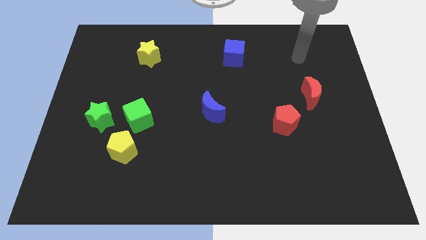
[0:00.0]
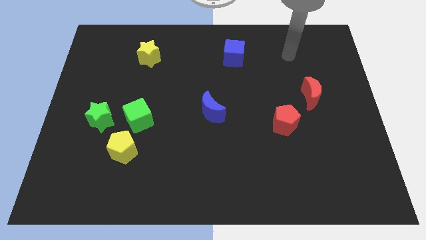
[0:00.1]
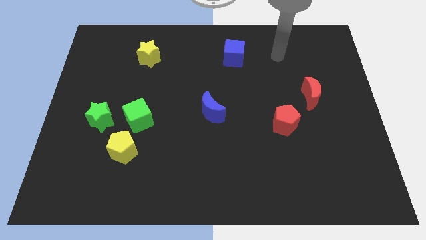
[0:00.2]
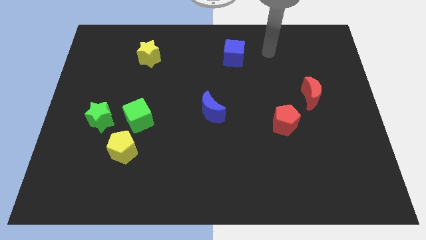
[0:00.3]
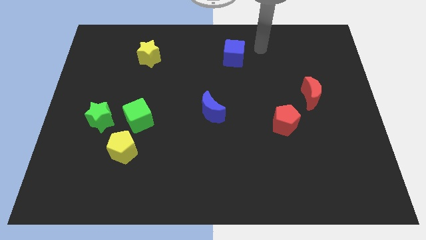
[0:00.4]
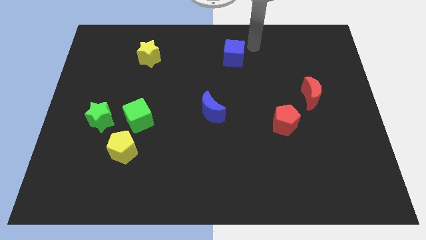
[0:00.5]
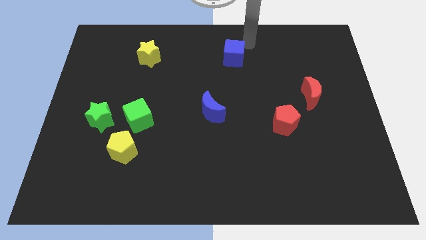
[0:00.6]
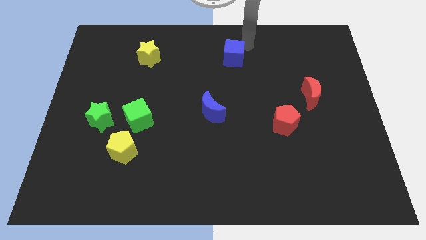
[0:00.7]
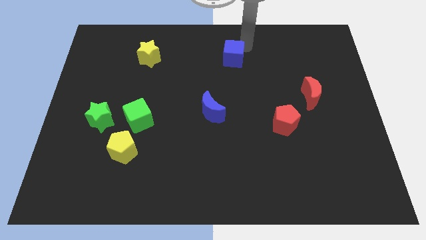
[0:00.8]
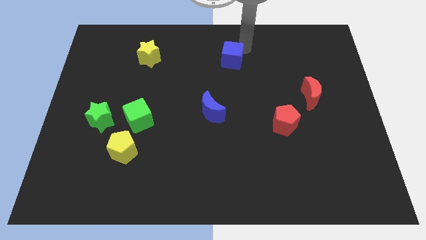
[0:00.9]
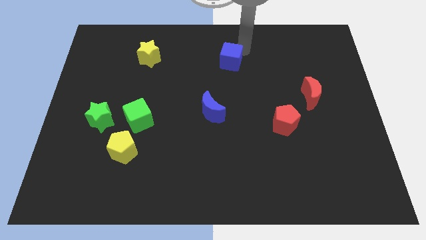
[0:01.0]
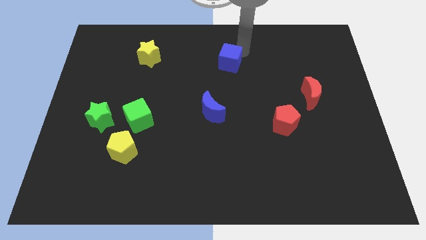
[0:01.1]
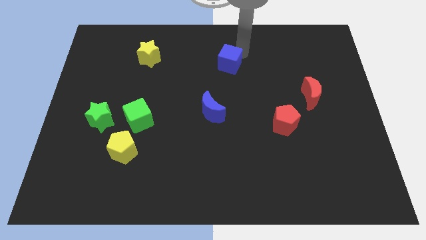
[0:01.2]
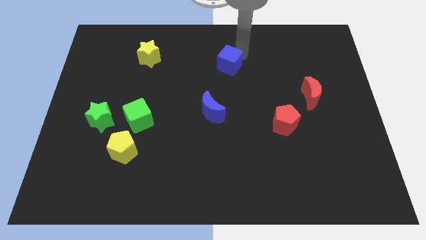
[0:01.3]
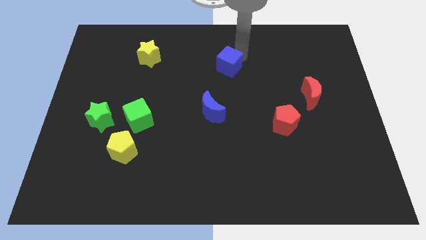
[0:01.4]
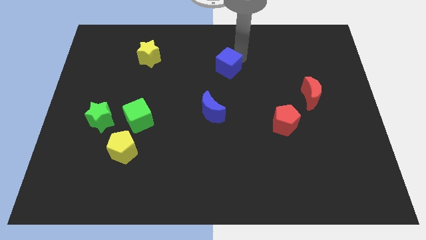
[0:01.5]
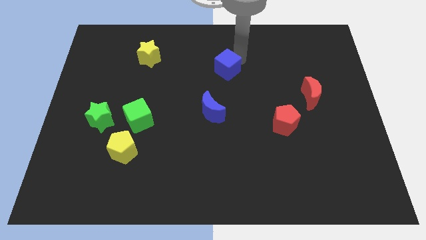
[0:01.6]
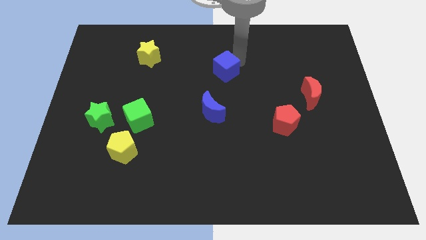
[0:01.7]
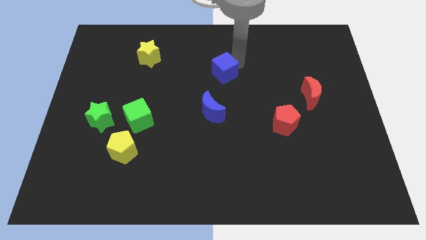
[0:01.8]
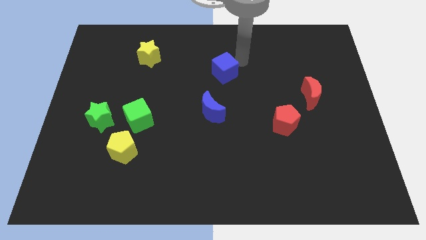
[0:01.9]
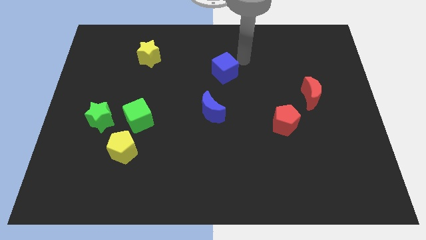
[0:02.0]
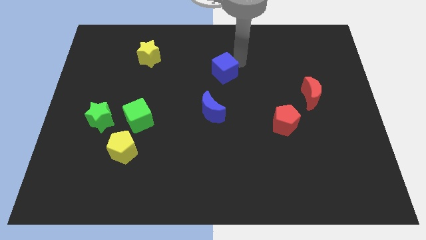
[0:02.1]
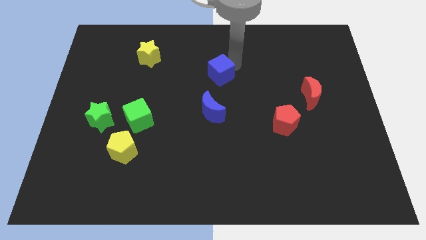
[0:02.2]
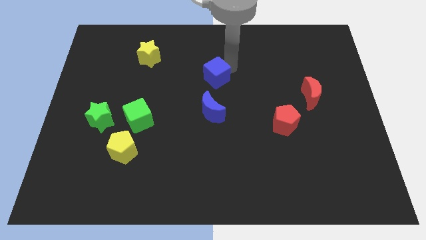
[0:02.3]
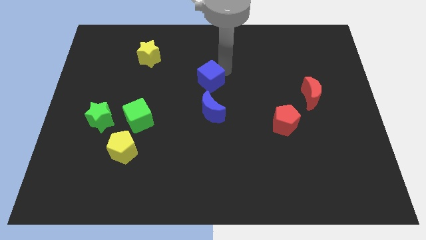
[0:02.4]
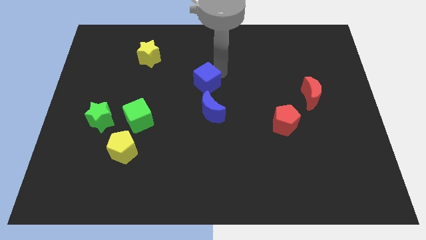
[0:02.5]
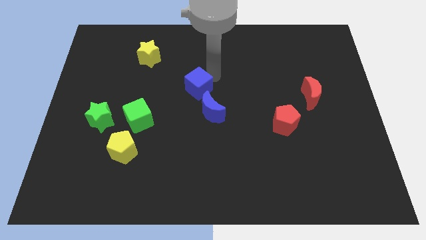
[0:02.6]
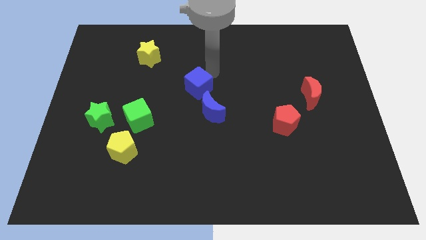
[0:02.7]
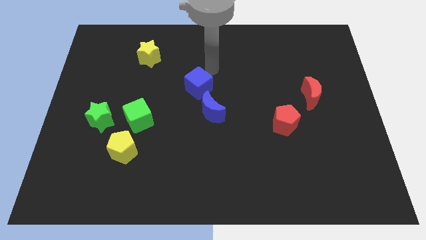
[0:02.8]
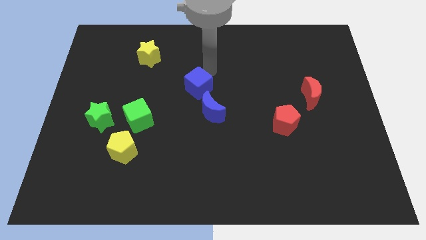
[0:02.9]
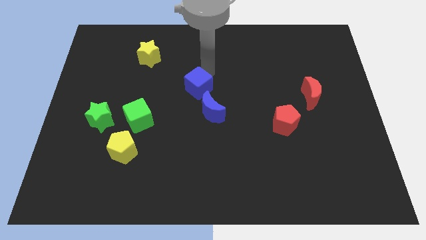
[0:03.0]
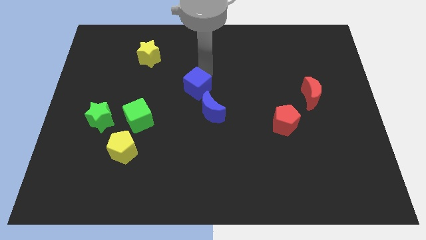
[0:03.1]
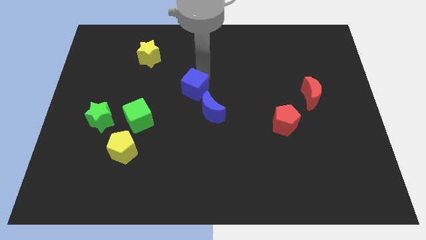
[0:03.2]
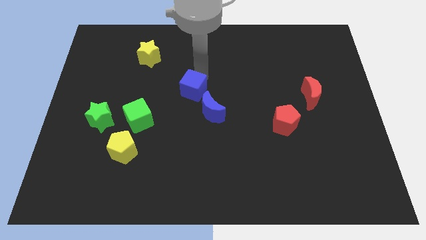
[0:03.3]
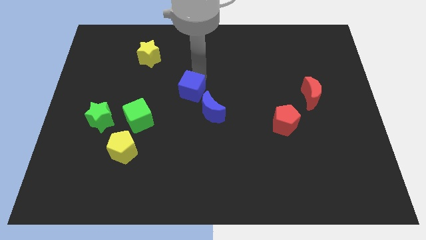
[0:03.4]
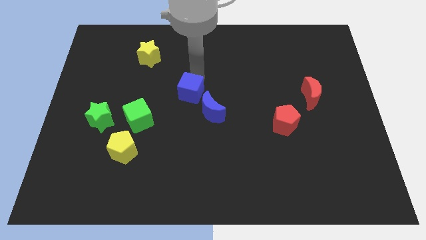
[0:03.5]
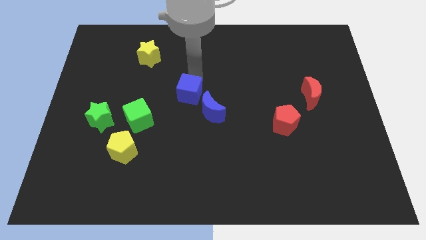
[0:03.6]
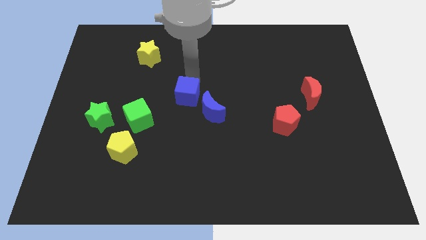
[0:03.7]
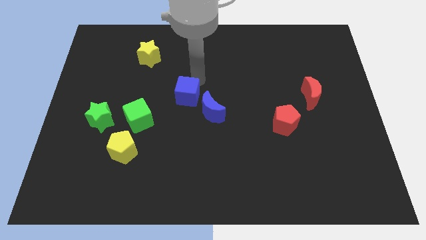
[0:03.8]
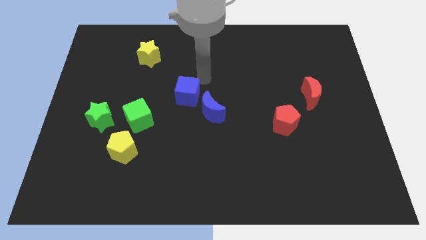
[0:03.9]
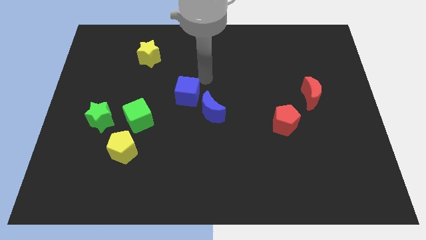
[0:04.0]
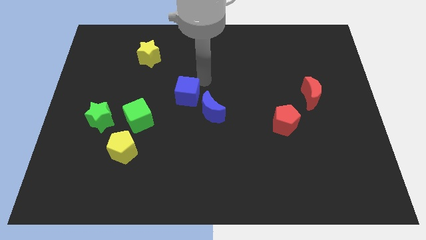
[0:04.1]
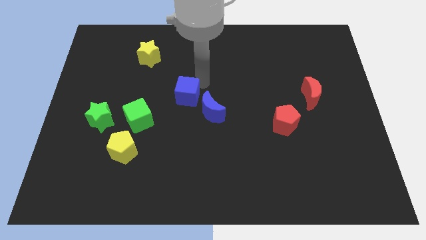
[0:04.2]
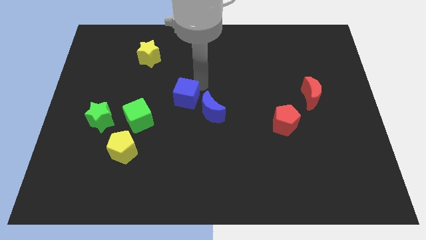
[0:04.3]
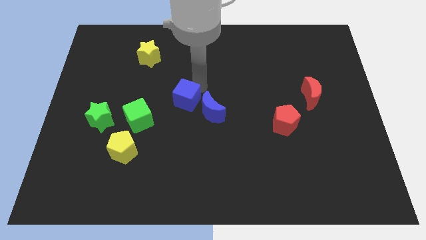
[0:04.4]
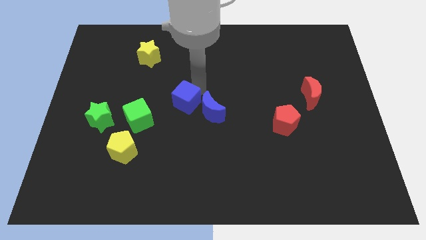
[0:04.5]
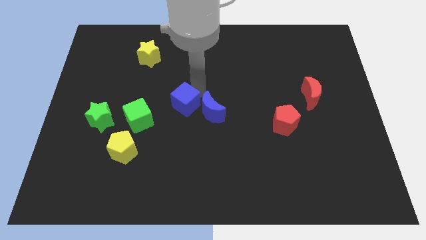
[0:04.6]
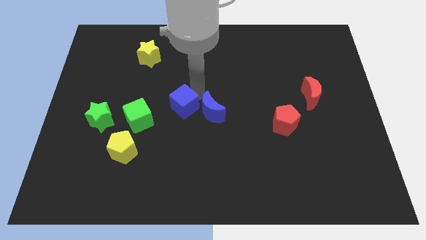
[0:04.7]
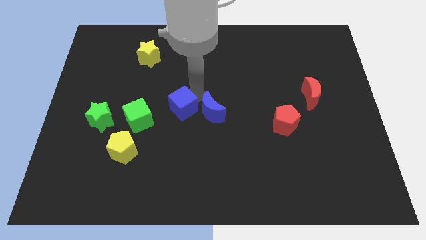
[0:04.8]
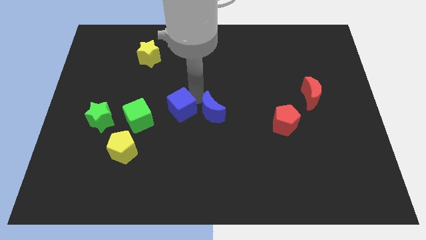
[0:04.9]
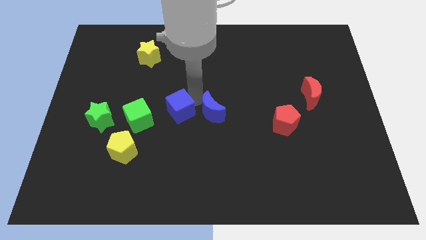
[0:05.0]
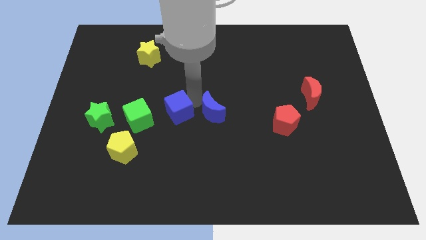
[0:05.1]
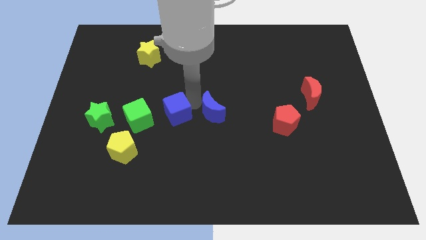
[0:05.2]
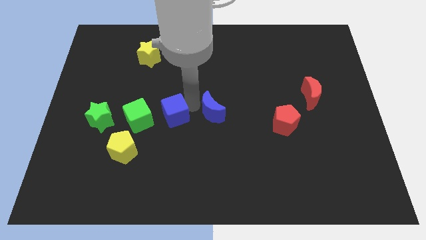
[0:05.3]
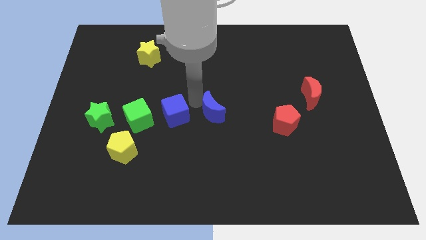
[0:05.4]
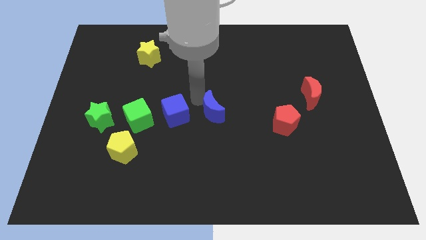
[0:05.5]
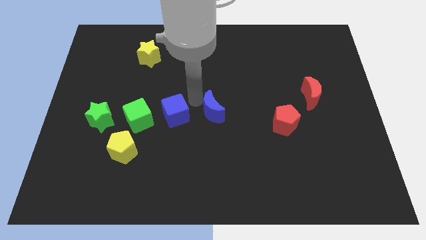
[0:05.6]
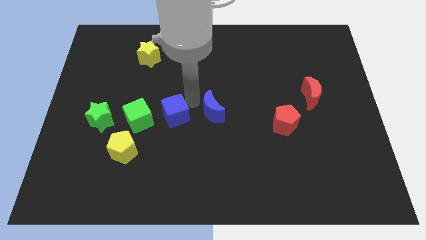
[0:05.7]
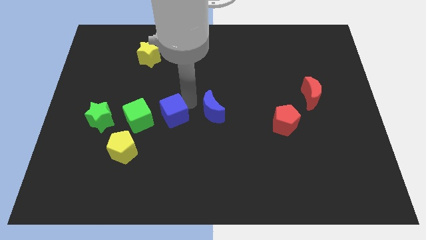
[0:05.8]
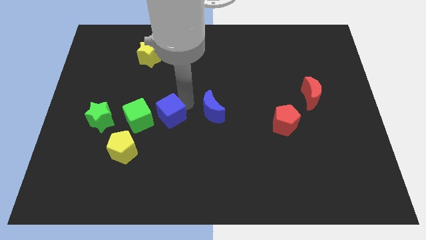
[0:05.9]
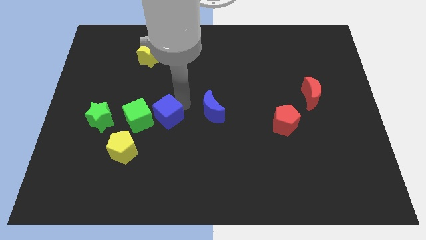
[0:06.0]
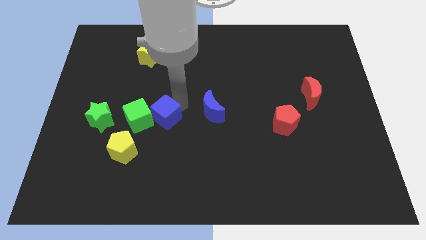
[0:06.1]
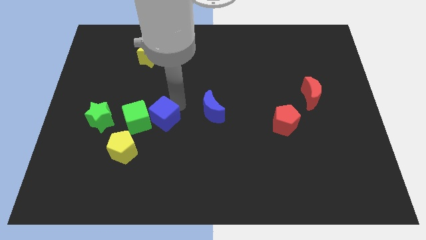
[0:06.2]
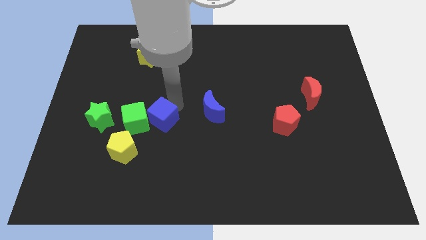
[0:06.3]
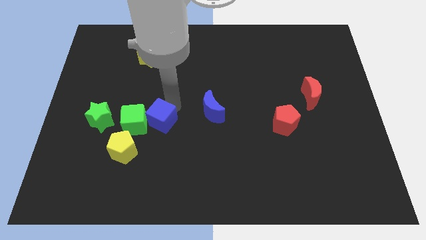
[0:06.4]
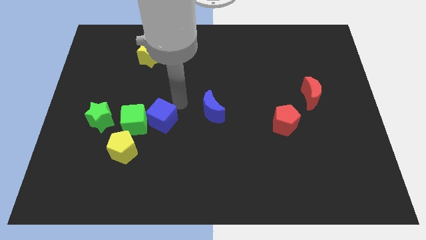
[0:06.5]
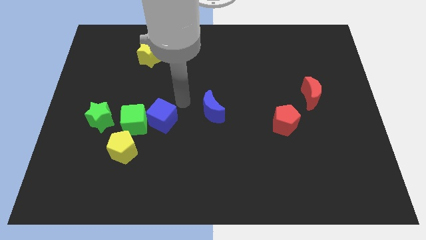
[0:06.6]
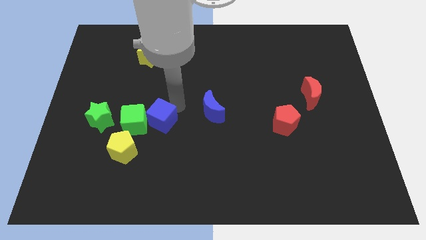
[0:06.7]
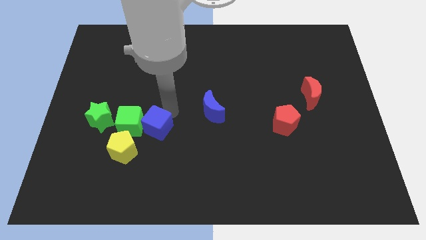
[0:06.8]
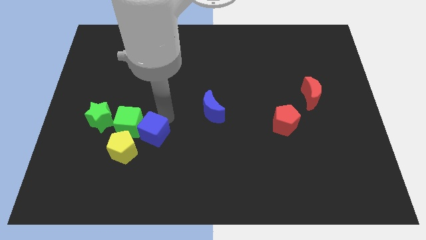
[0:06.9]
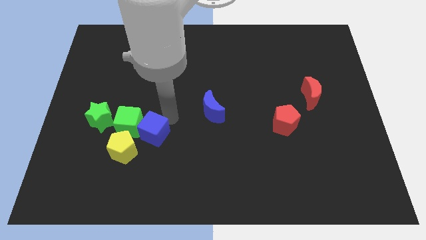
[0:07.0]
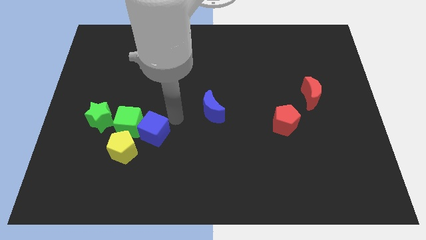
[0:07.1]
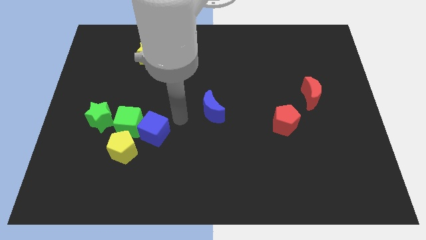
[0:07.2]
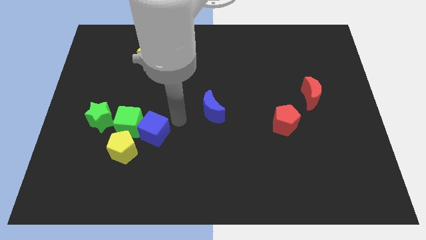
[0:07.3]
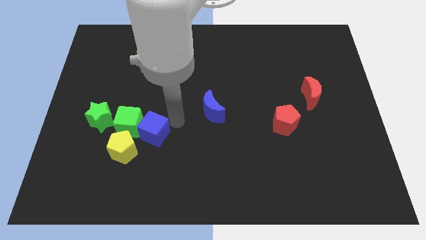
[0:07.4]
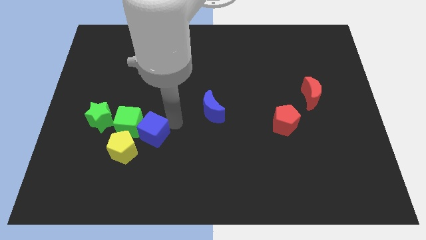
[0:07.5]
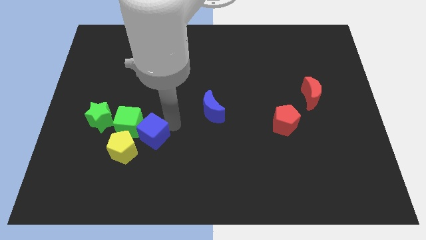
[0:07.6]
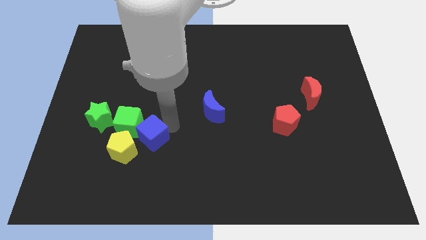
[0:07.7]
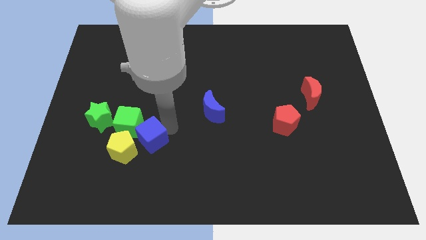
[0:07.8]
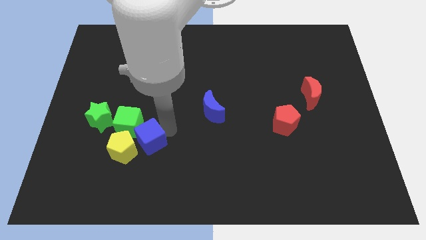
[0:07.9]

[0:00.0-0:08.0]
move the blue cube close to the yellow pentagon

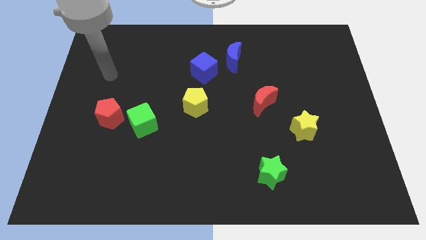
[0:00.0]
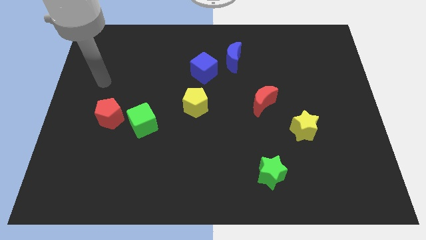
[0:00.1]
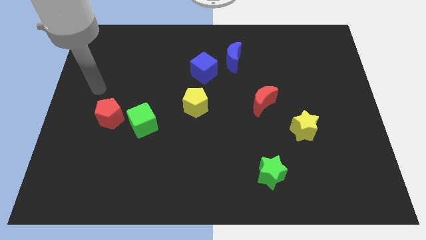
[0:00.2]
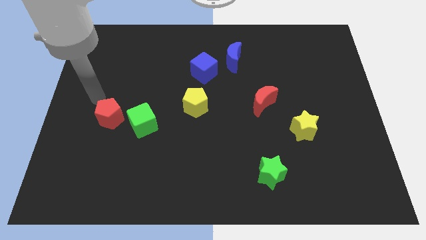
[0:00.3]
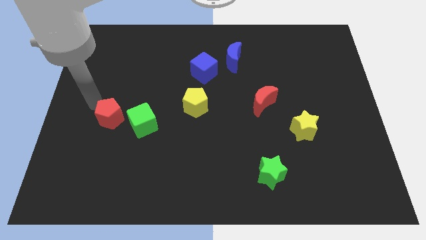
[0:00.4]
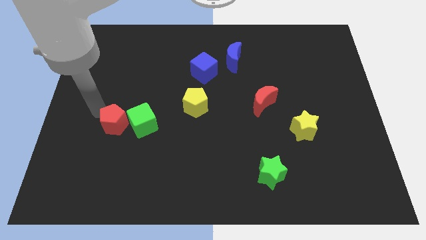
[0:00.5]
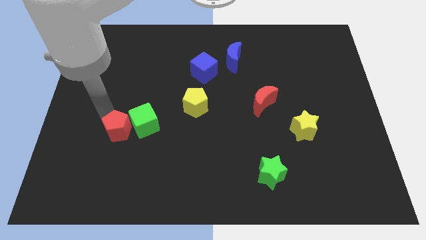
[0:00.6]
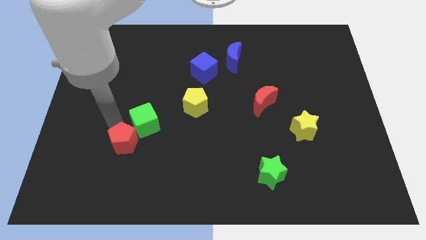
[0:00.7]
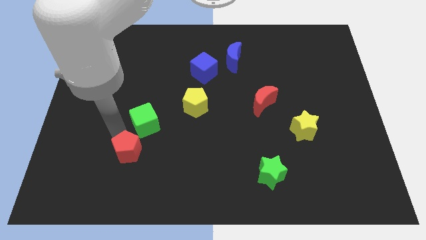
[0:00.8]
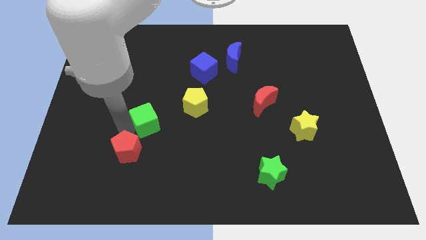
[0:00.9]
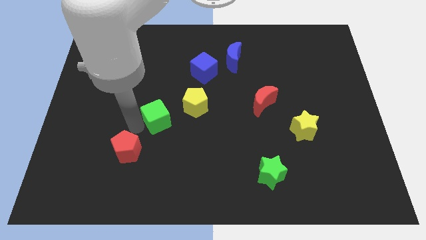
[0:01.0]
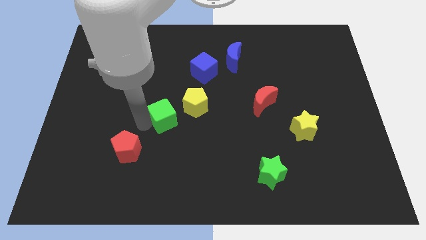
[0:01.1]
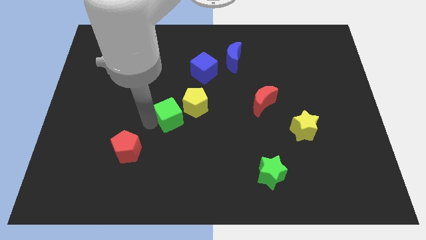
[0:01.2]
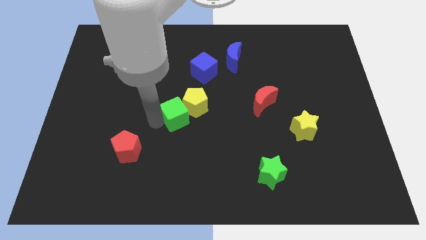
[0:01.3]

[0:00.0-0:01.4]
move the green cube to the yellow pentagon
